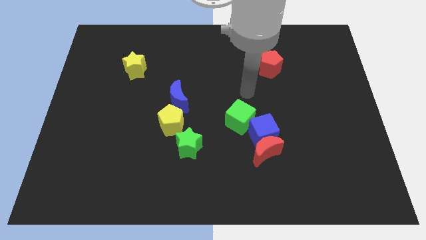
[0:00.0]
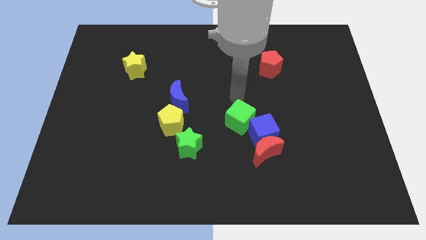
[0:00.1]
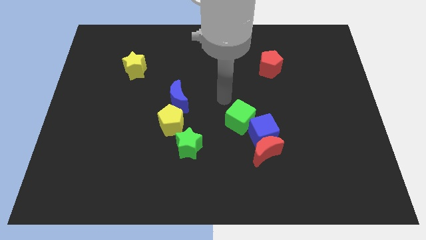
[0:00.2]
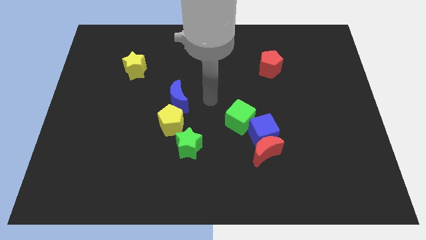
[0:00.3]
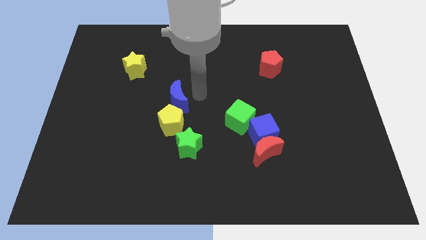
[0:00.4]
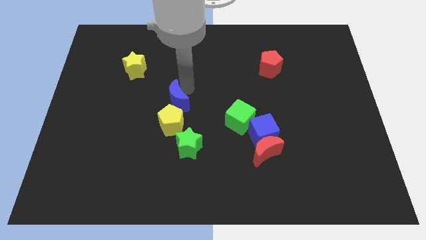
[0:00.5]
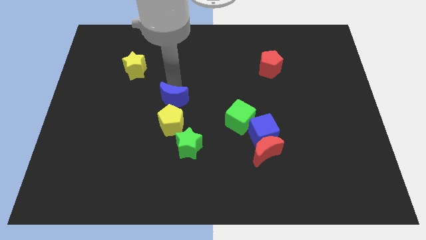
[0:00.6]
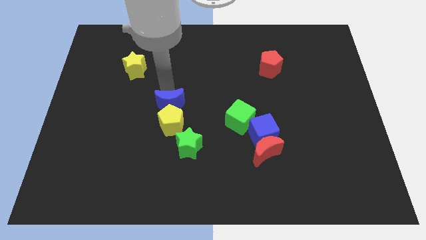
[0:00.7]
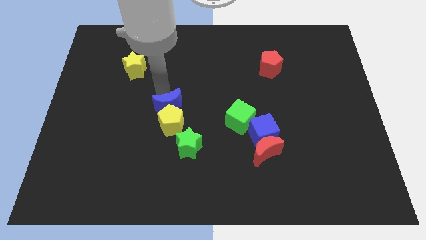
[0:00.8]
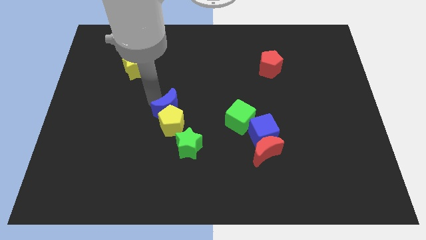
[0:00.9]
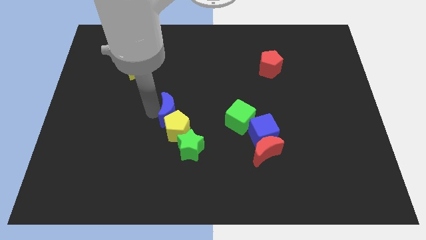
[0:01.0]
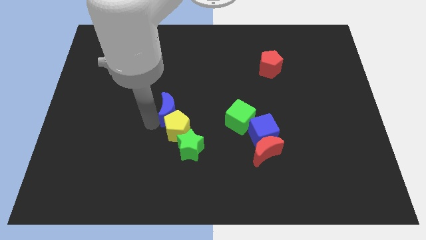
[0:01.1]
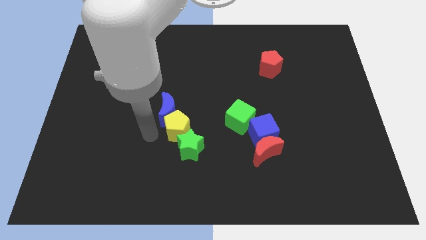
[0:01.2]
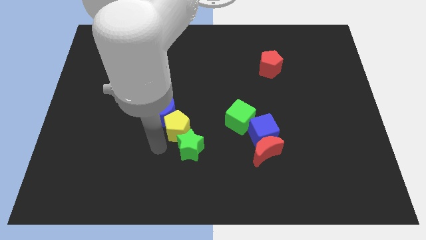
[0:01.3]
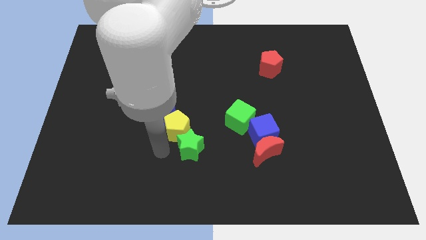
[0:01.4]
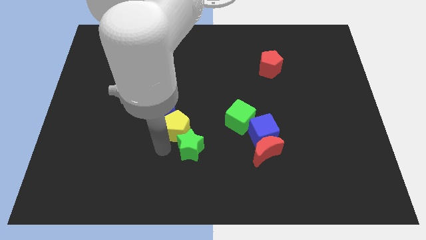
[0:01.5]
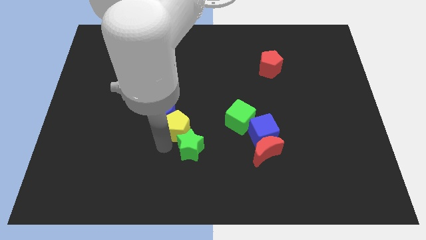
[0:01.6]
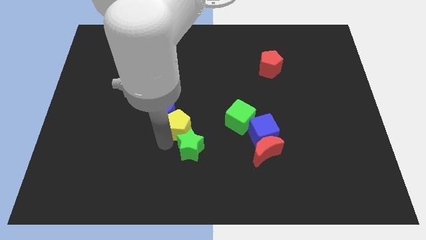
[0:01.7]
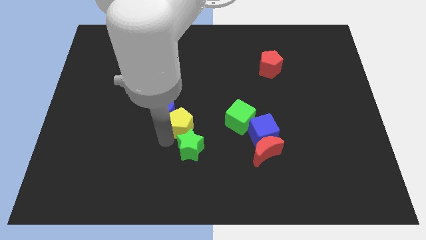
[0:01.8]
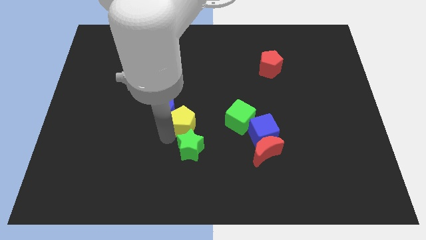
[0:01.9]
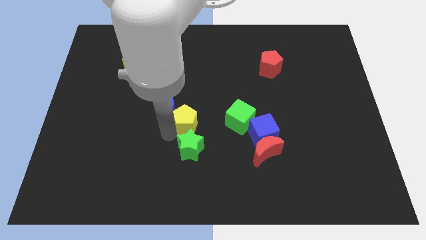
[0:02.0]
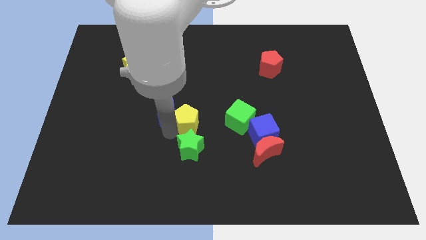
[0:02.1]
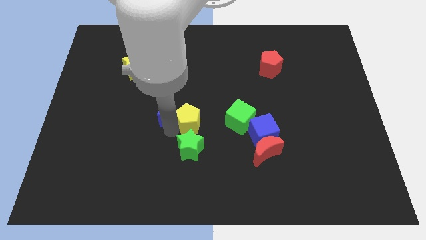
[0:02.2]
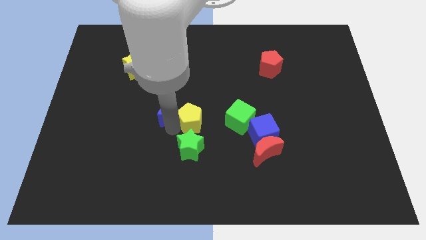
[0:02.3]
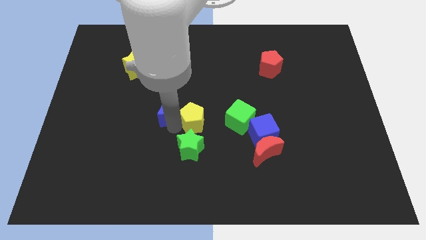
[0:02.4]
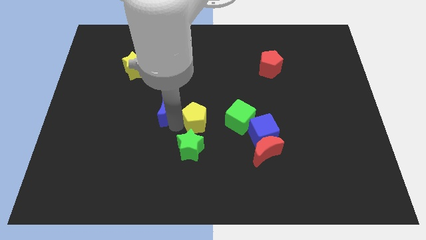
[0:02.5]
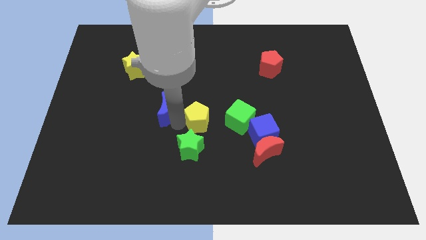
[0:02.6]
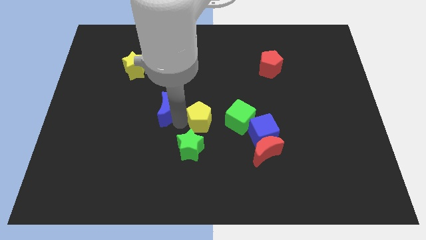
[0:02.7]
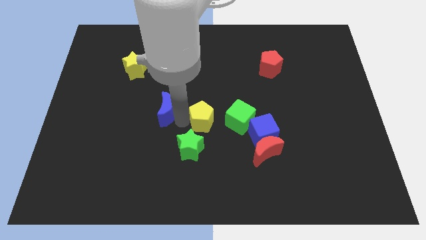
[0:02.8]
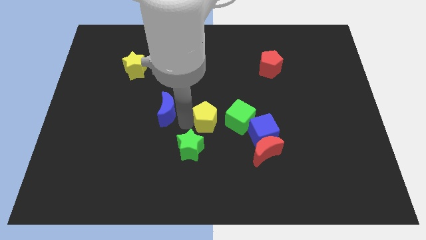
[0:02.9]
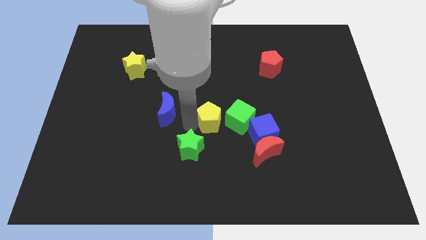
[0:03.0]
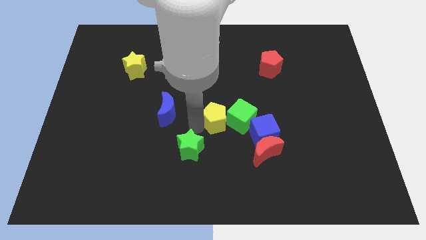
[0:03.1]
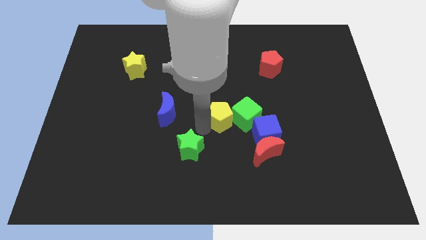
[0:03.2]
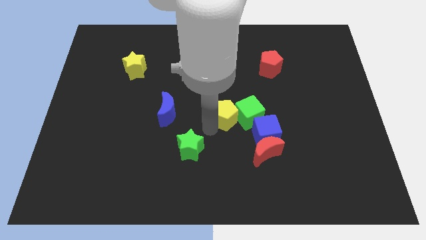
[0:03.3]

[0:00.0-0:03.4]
slightly push the yellow pentagon up and right

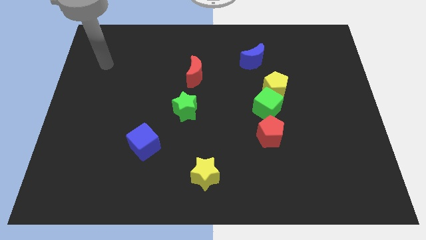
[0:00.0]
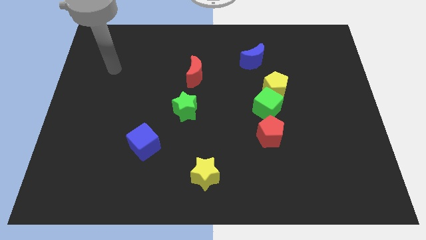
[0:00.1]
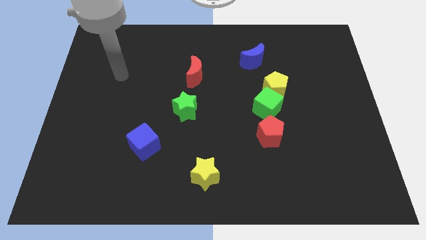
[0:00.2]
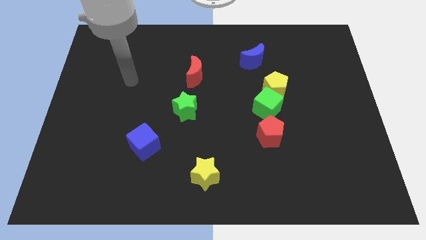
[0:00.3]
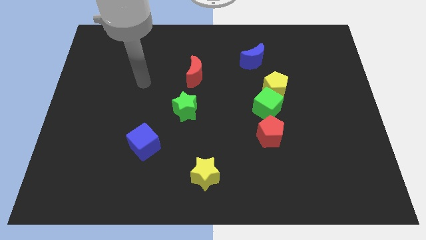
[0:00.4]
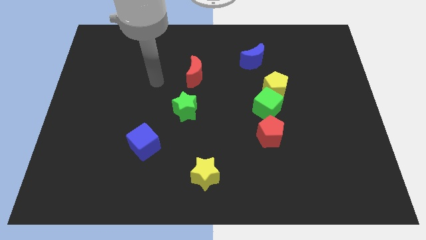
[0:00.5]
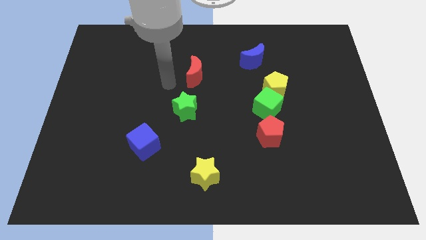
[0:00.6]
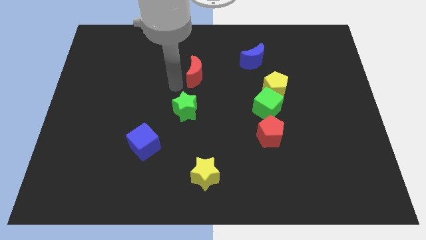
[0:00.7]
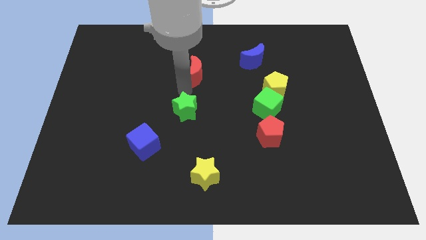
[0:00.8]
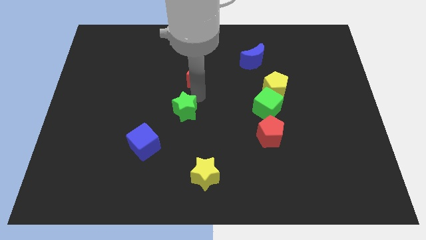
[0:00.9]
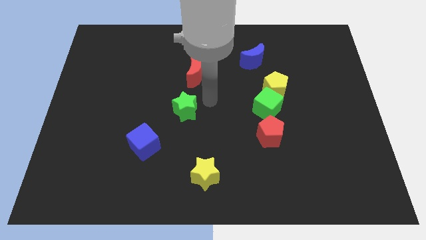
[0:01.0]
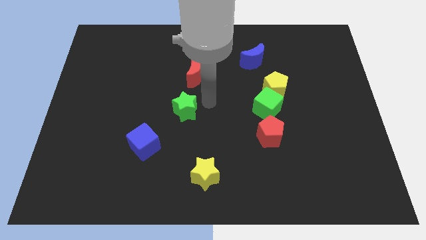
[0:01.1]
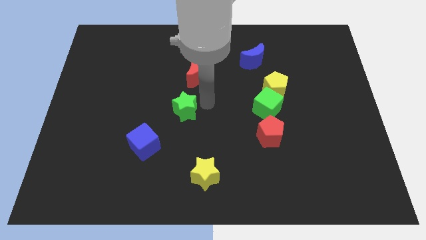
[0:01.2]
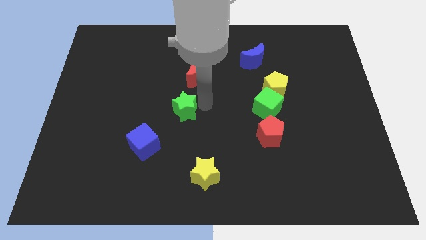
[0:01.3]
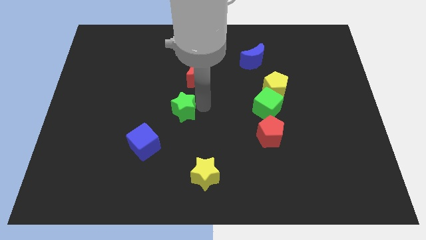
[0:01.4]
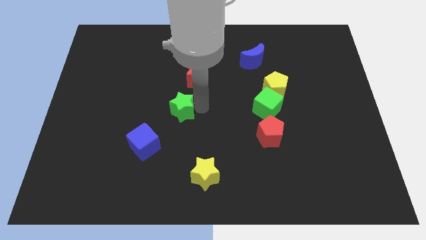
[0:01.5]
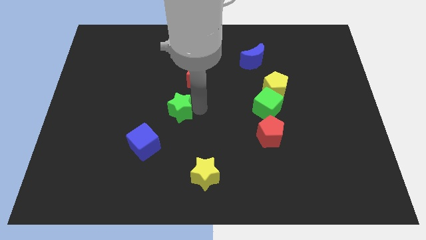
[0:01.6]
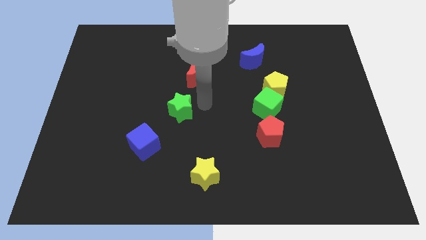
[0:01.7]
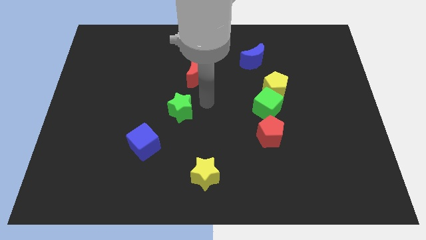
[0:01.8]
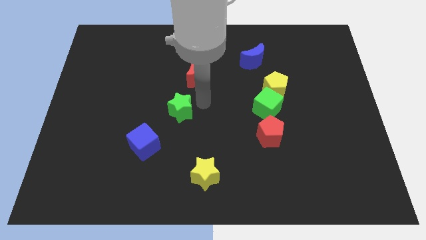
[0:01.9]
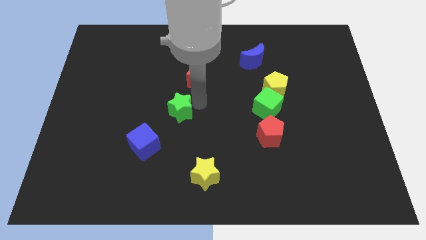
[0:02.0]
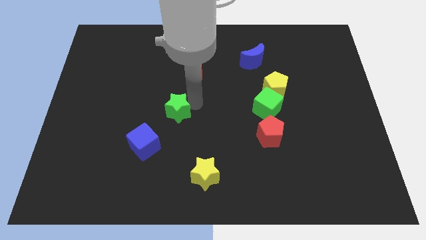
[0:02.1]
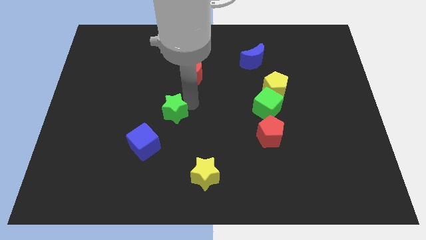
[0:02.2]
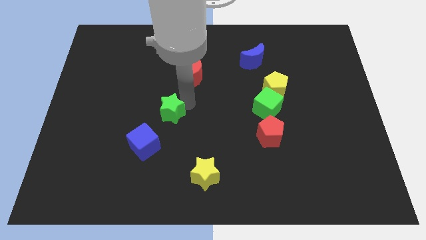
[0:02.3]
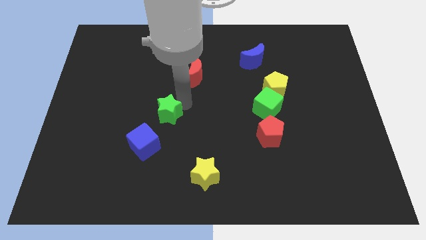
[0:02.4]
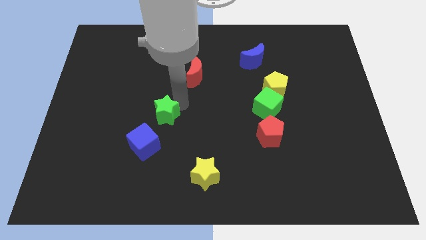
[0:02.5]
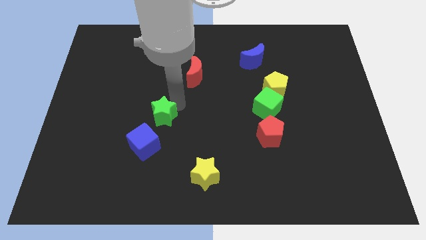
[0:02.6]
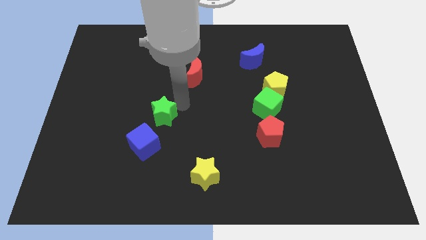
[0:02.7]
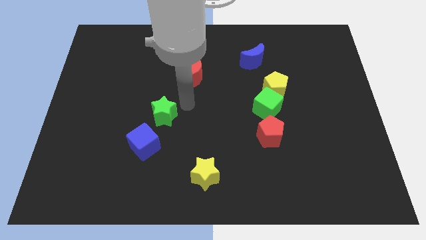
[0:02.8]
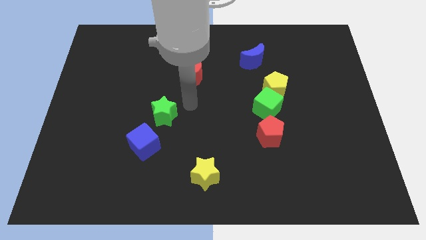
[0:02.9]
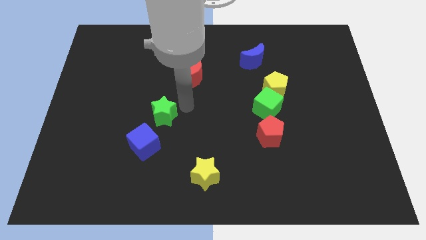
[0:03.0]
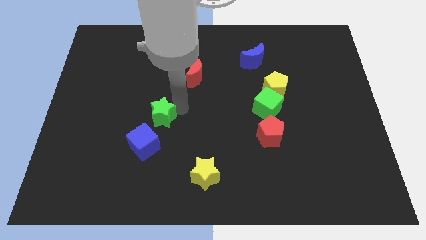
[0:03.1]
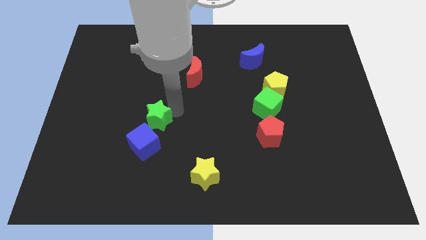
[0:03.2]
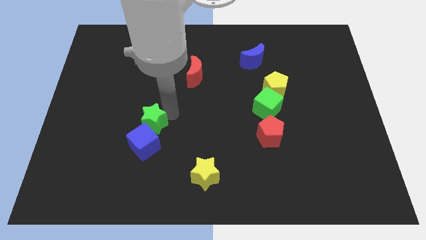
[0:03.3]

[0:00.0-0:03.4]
slightly slide the green star diagonally downwards and left

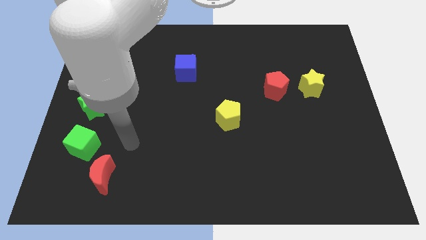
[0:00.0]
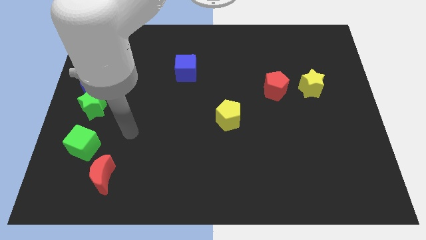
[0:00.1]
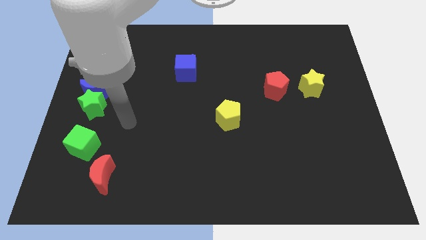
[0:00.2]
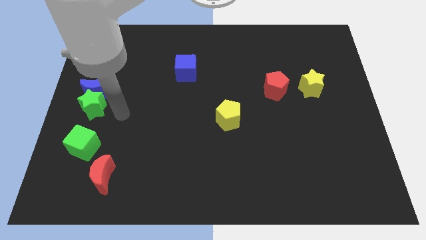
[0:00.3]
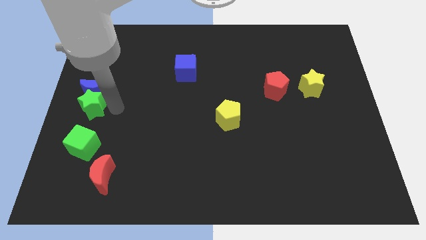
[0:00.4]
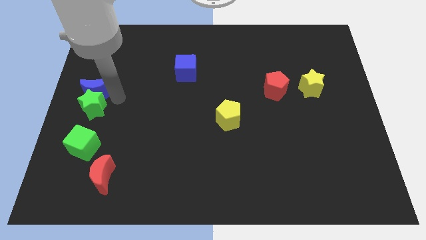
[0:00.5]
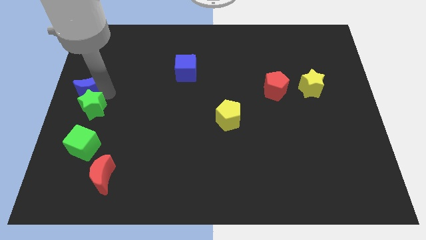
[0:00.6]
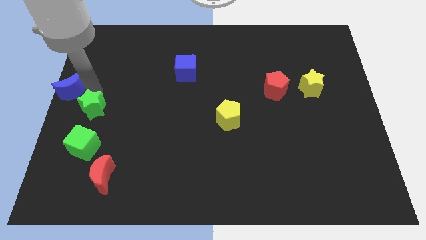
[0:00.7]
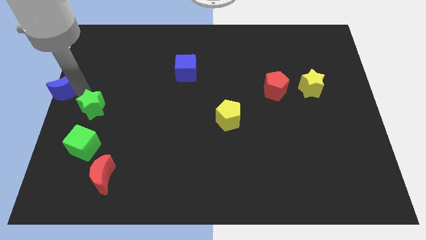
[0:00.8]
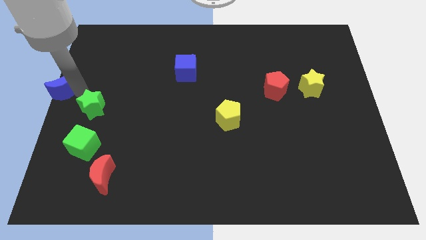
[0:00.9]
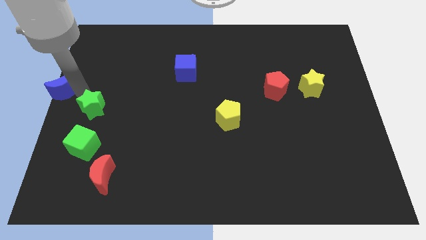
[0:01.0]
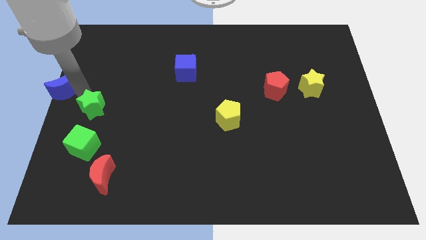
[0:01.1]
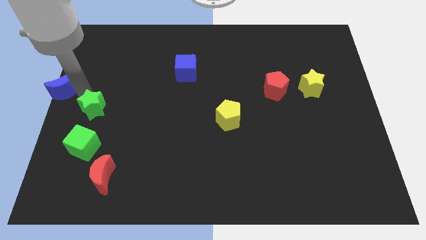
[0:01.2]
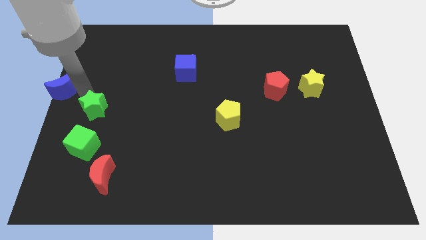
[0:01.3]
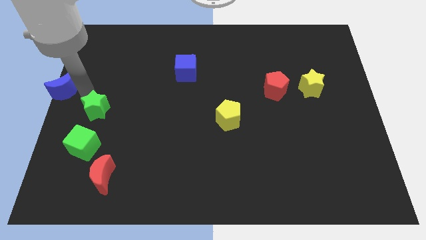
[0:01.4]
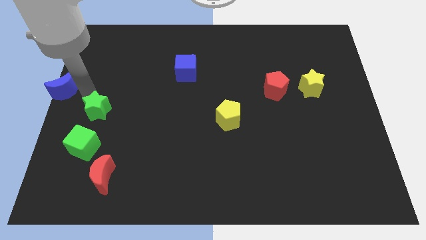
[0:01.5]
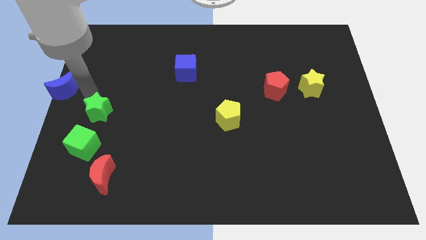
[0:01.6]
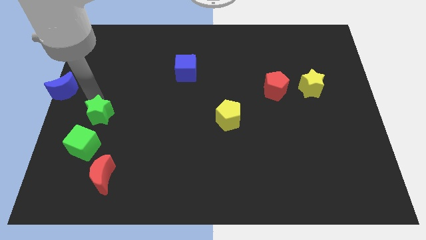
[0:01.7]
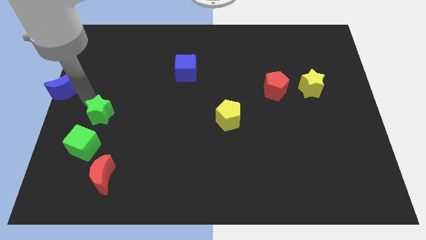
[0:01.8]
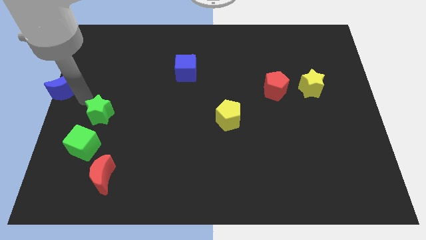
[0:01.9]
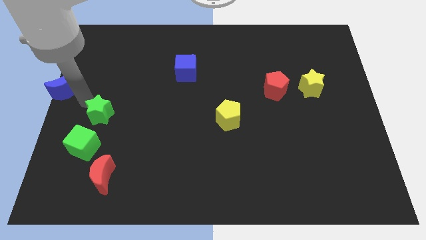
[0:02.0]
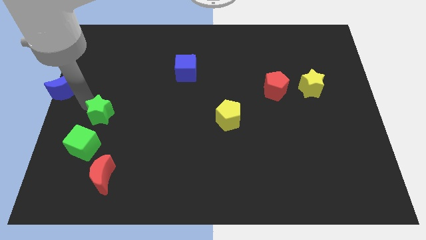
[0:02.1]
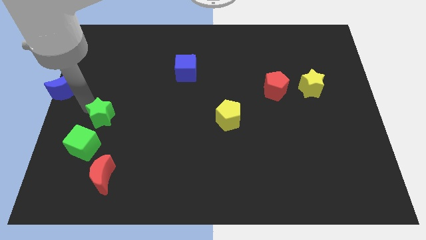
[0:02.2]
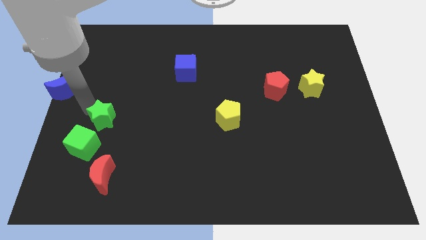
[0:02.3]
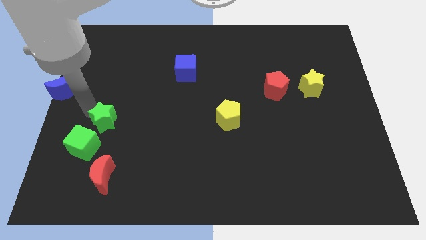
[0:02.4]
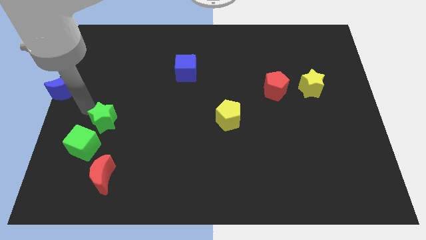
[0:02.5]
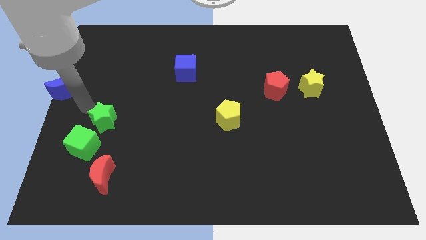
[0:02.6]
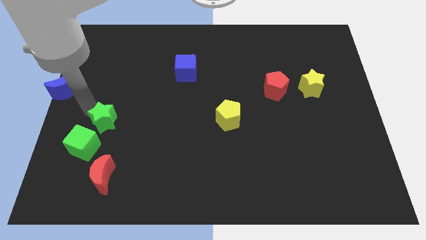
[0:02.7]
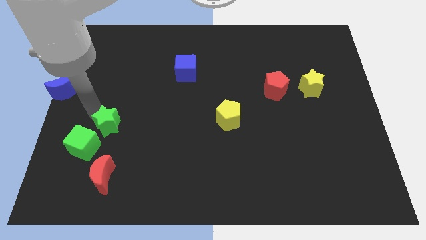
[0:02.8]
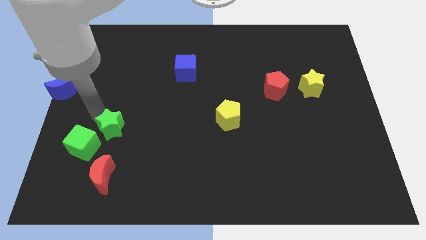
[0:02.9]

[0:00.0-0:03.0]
slide the green star a bit downwards and right
